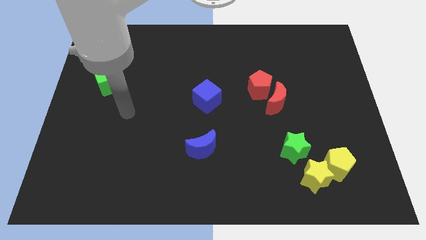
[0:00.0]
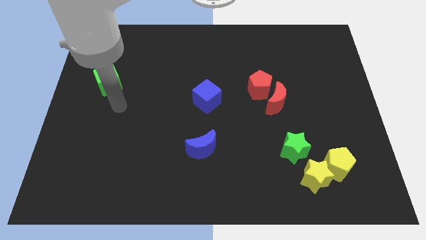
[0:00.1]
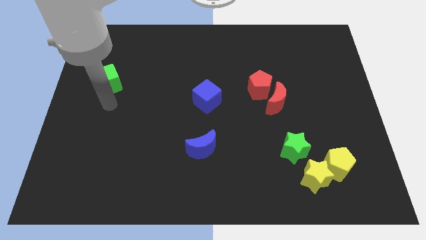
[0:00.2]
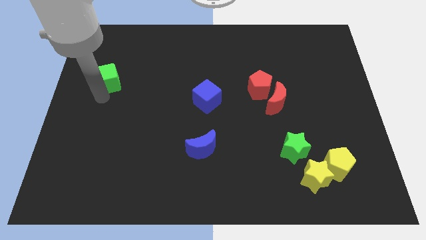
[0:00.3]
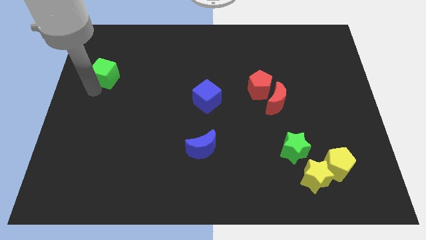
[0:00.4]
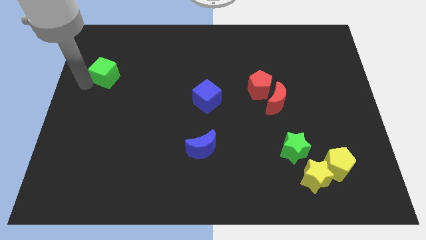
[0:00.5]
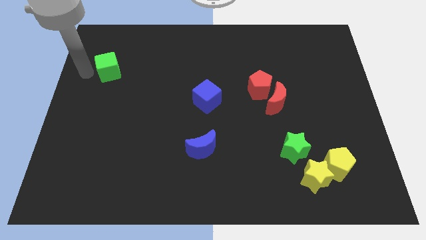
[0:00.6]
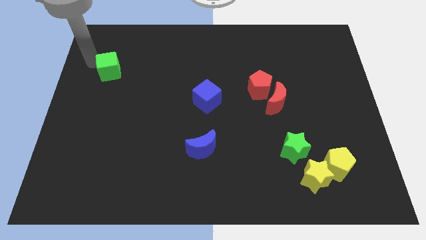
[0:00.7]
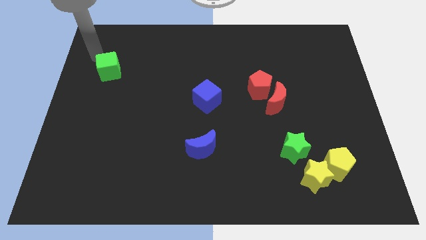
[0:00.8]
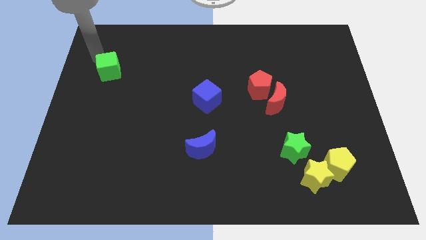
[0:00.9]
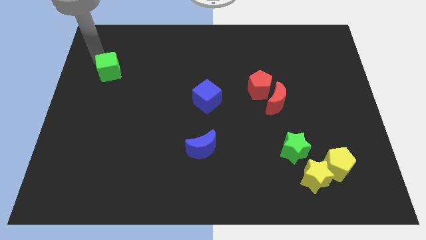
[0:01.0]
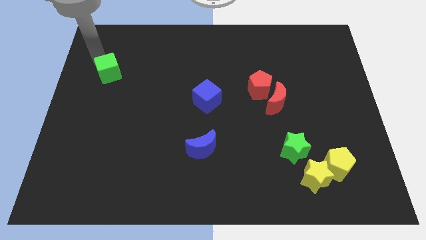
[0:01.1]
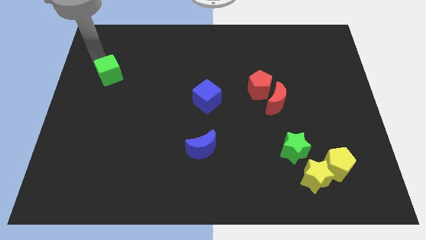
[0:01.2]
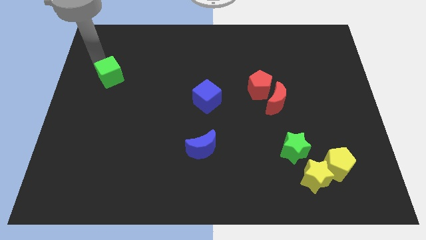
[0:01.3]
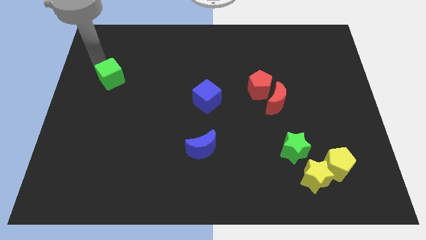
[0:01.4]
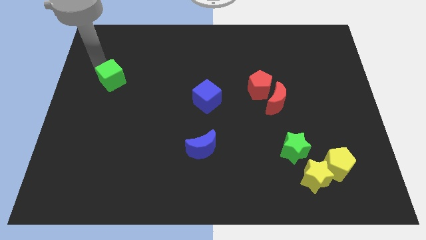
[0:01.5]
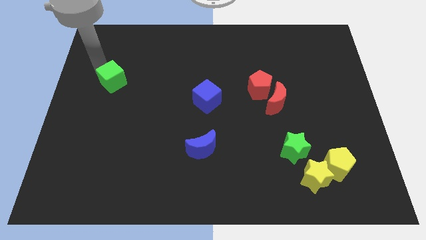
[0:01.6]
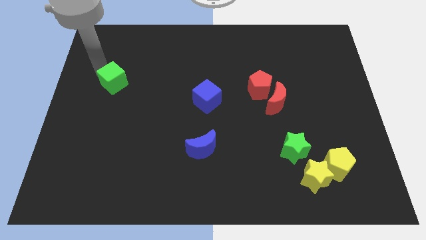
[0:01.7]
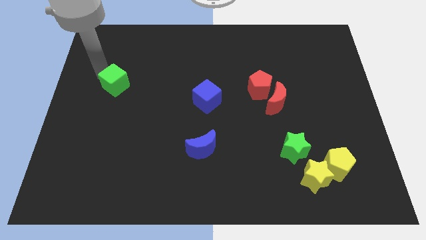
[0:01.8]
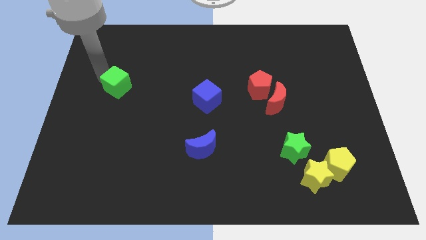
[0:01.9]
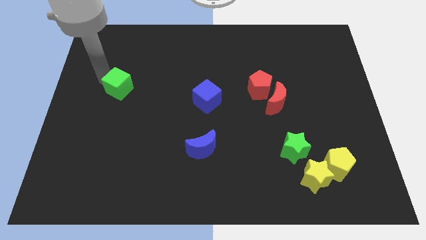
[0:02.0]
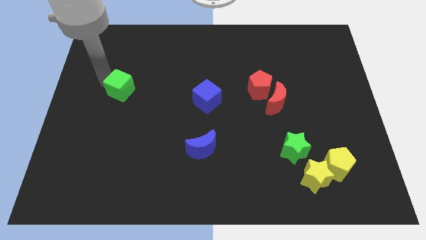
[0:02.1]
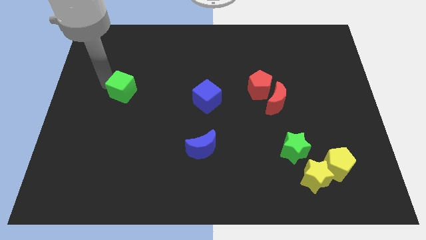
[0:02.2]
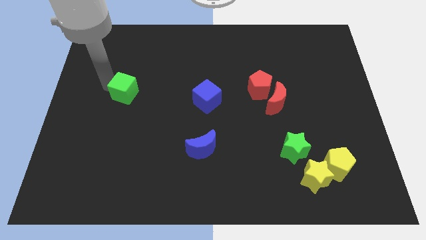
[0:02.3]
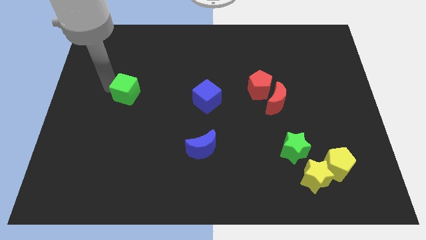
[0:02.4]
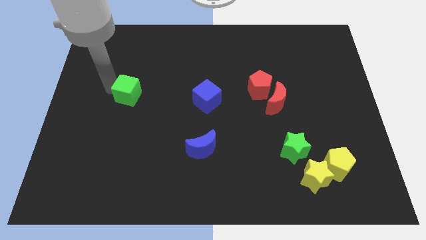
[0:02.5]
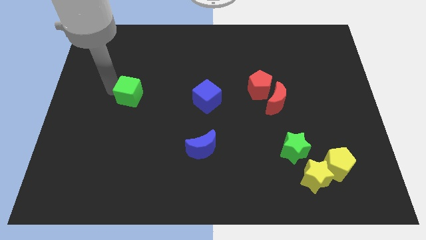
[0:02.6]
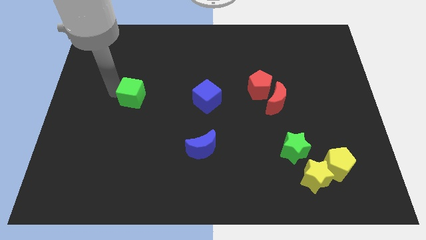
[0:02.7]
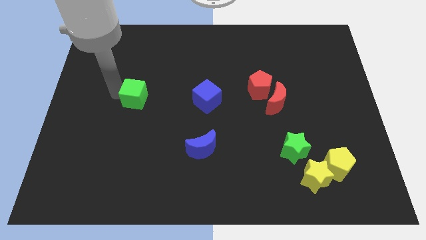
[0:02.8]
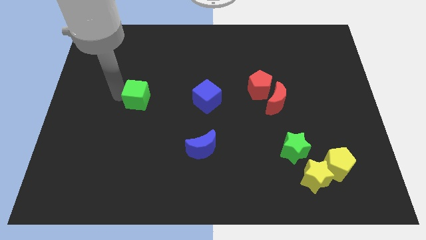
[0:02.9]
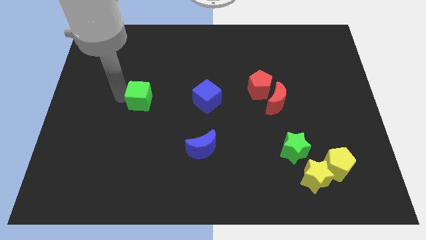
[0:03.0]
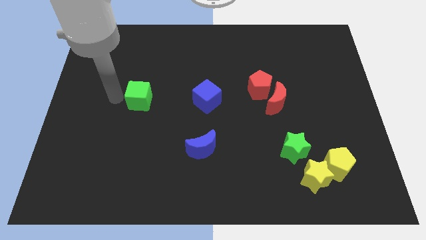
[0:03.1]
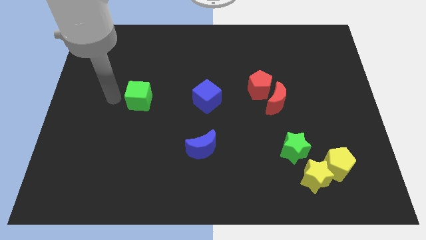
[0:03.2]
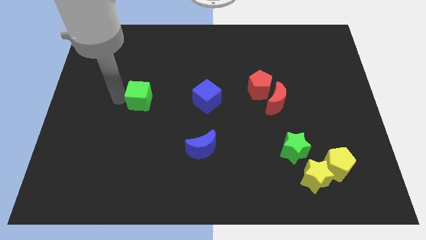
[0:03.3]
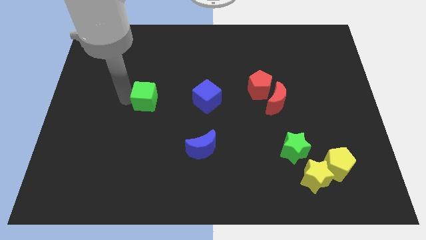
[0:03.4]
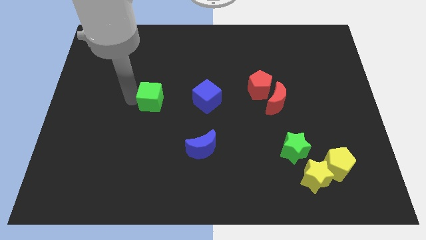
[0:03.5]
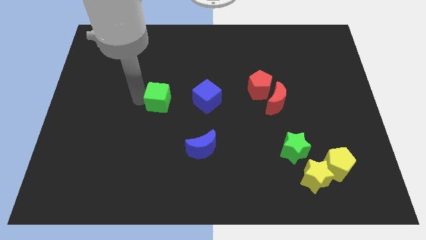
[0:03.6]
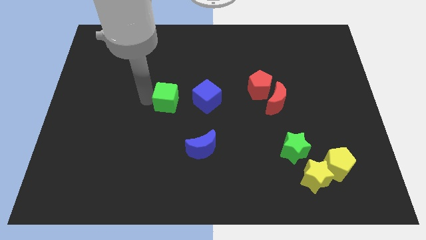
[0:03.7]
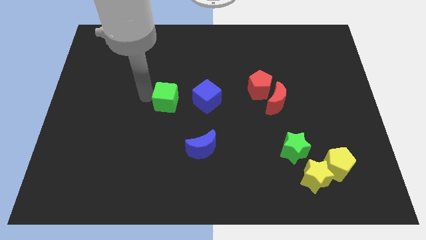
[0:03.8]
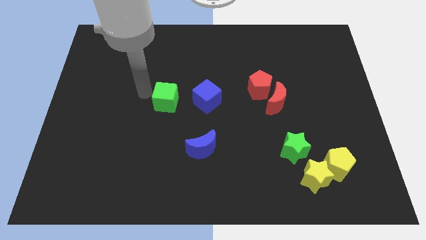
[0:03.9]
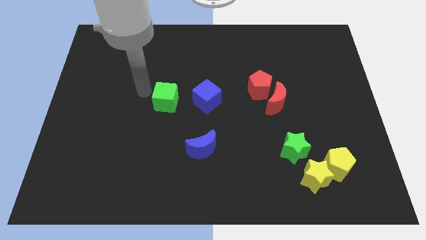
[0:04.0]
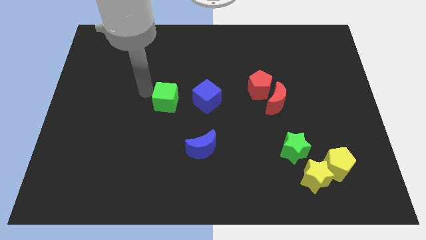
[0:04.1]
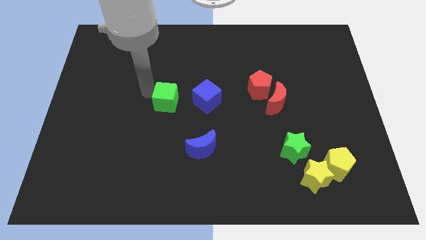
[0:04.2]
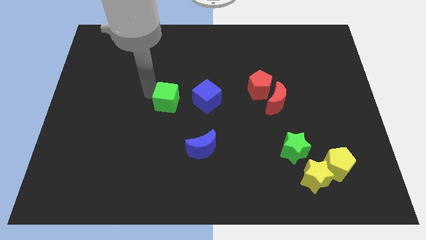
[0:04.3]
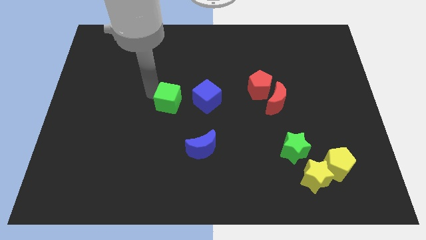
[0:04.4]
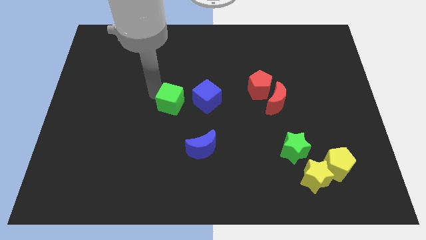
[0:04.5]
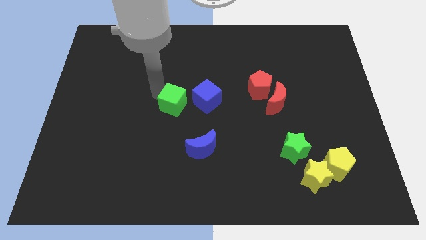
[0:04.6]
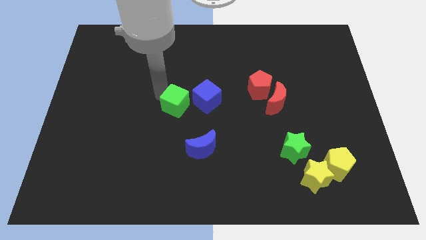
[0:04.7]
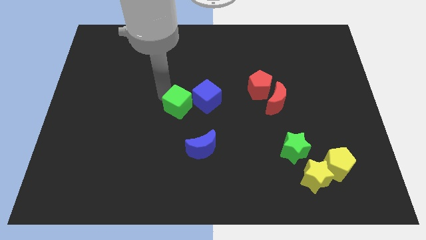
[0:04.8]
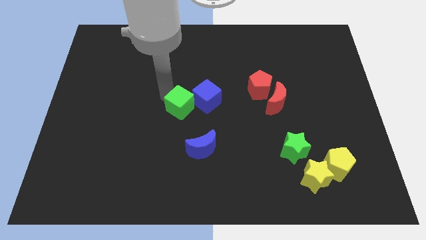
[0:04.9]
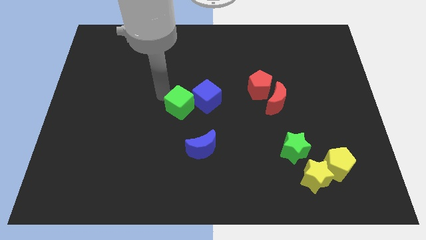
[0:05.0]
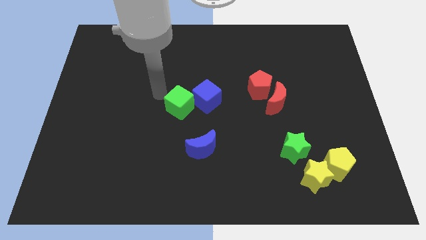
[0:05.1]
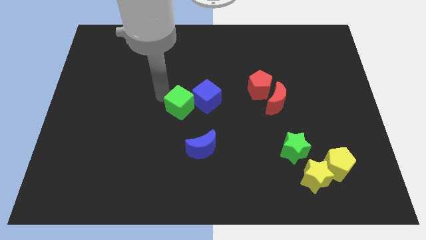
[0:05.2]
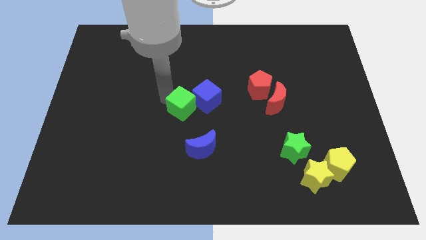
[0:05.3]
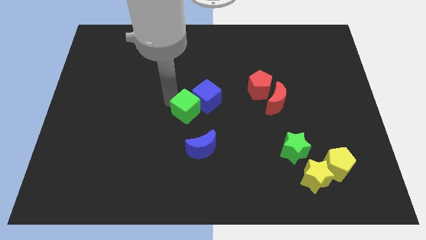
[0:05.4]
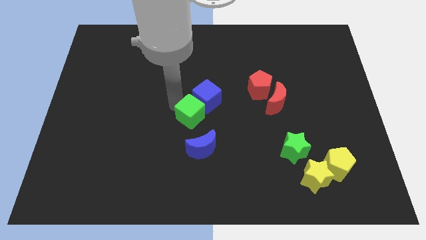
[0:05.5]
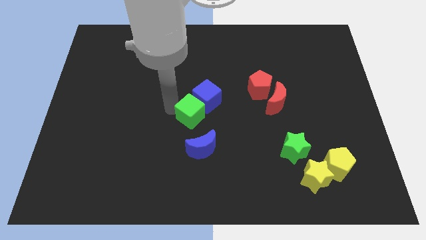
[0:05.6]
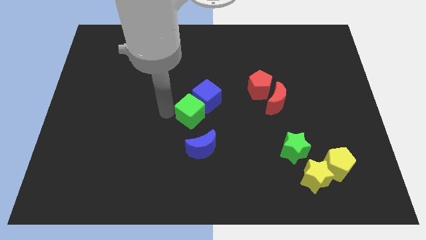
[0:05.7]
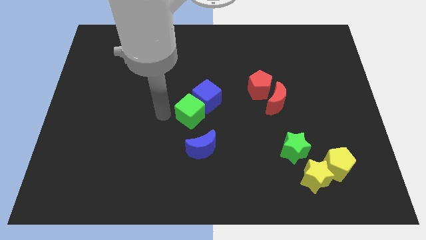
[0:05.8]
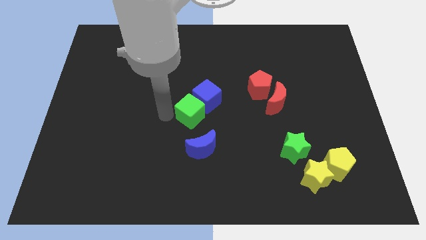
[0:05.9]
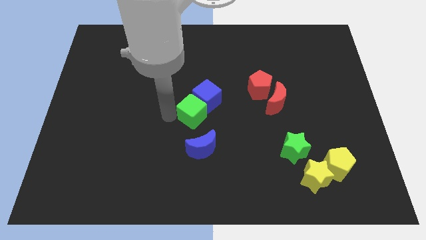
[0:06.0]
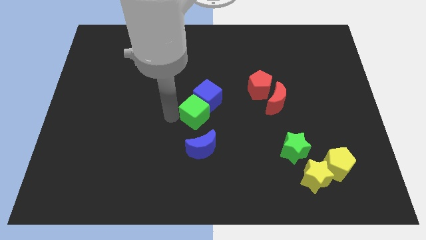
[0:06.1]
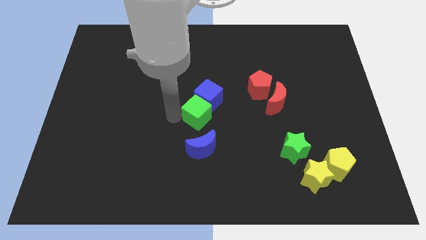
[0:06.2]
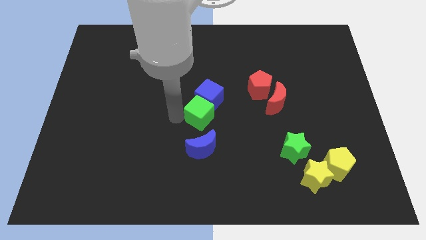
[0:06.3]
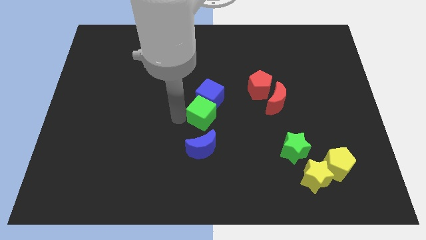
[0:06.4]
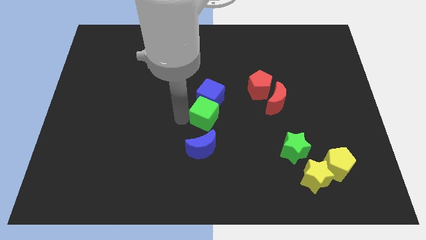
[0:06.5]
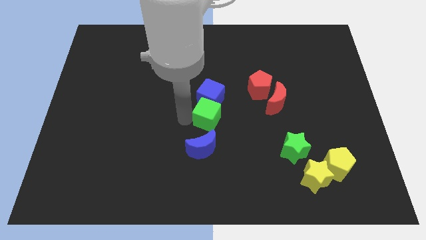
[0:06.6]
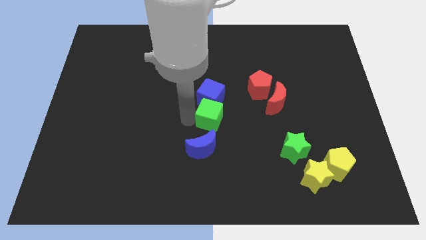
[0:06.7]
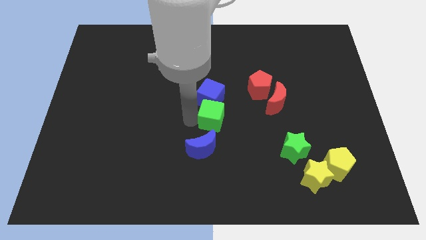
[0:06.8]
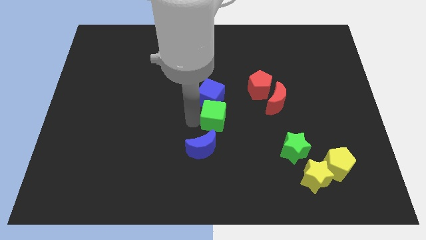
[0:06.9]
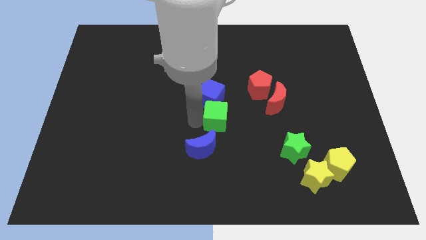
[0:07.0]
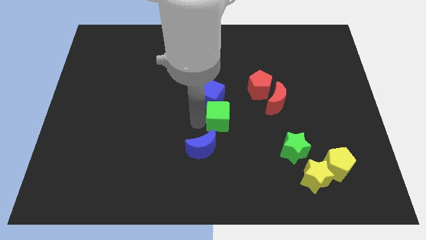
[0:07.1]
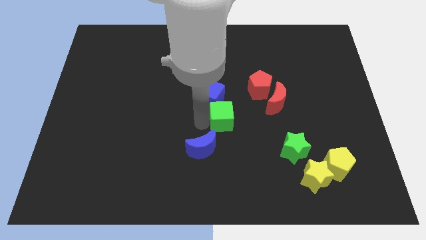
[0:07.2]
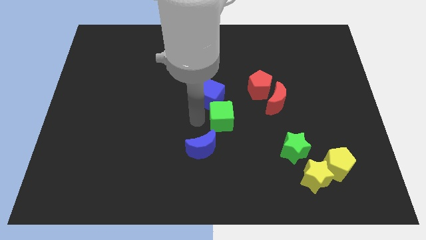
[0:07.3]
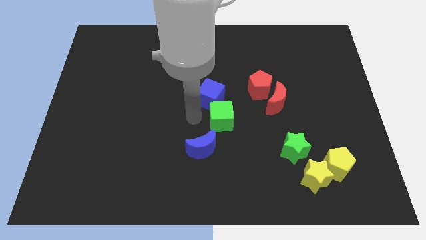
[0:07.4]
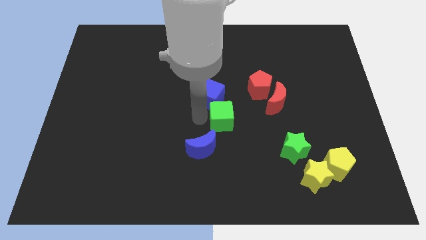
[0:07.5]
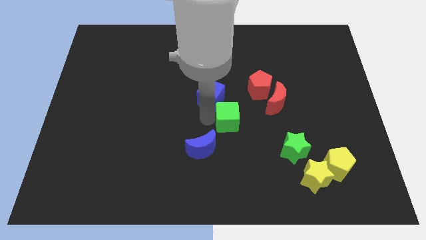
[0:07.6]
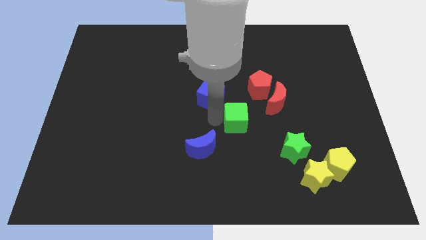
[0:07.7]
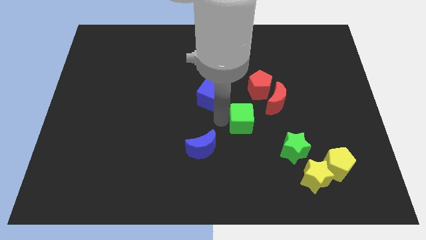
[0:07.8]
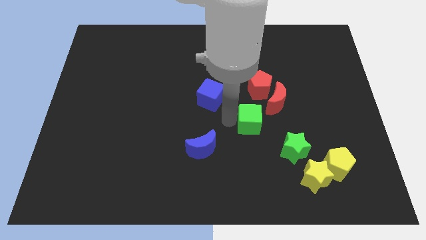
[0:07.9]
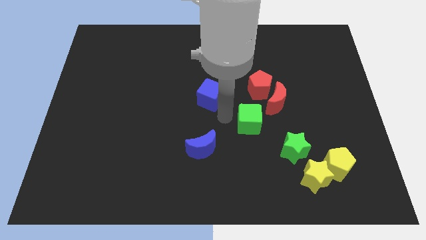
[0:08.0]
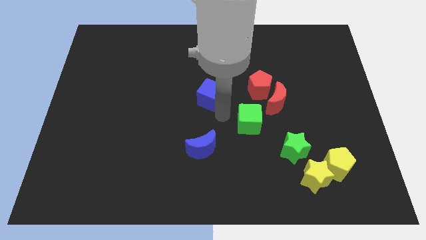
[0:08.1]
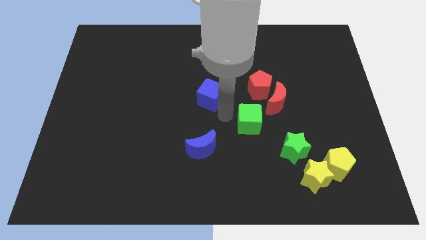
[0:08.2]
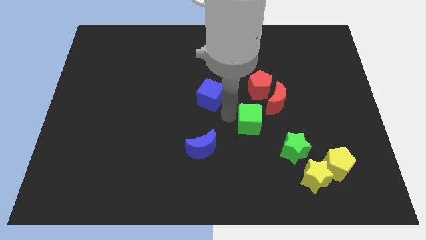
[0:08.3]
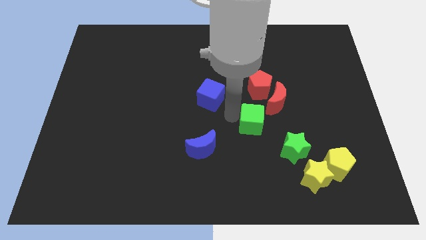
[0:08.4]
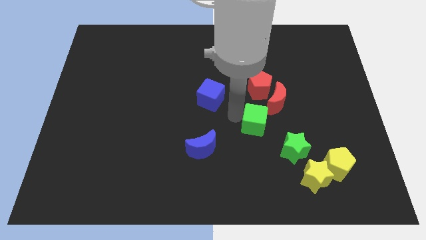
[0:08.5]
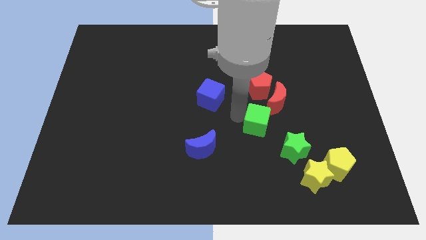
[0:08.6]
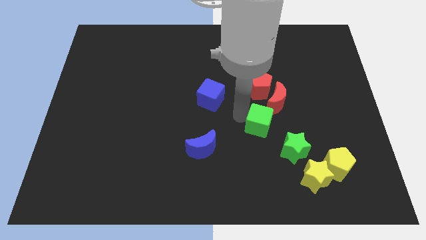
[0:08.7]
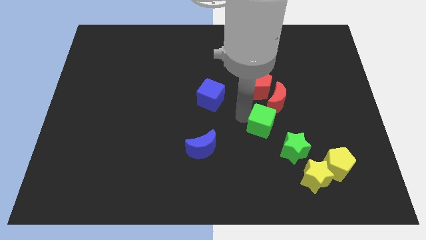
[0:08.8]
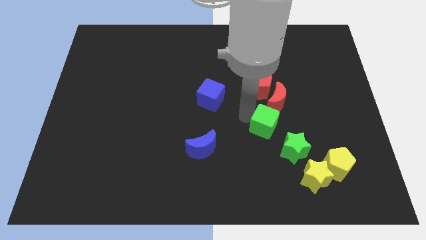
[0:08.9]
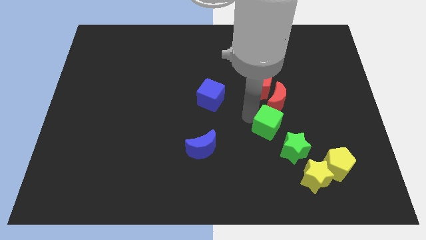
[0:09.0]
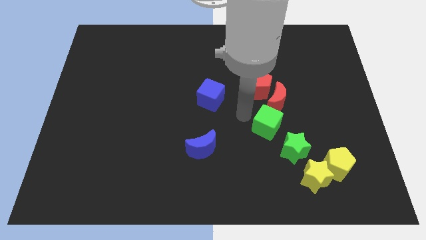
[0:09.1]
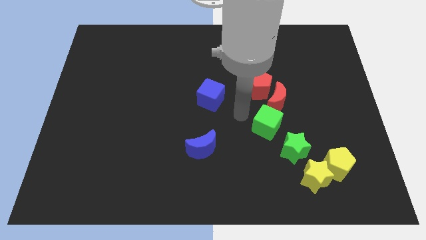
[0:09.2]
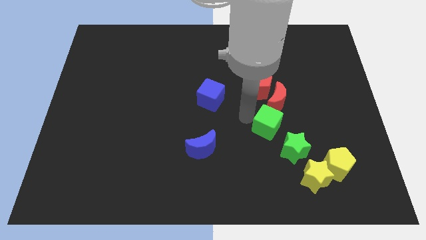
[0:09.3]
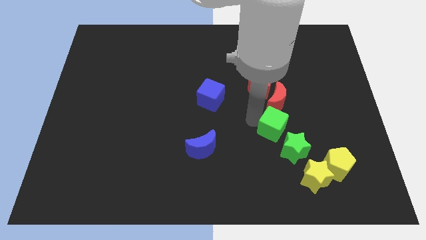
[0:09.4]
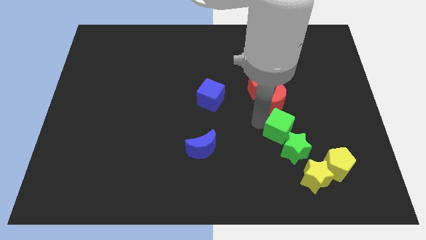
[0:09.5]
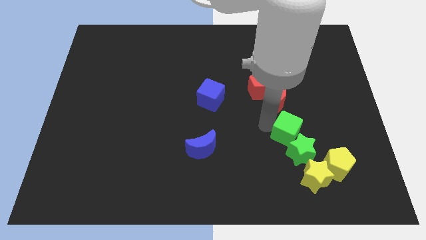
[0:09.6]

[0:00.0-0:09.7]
slide the green cube above the yellow star
